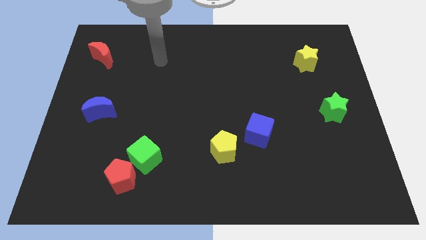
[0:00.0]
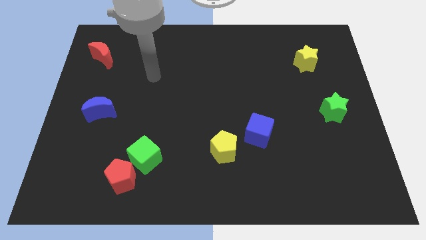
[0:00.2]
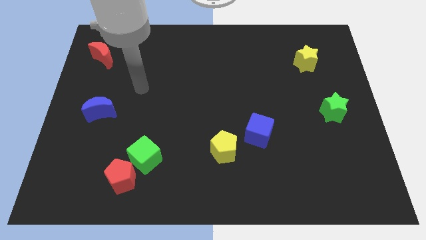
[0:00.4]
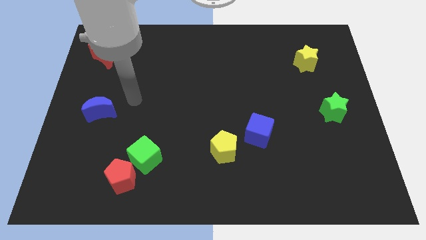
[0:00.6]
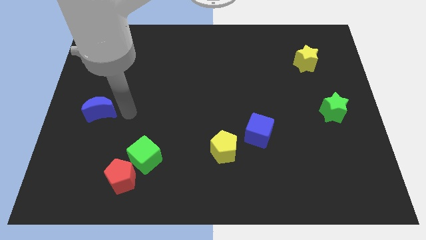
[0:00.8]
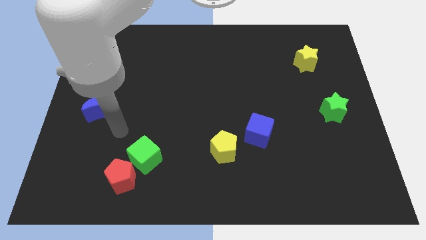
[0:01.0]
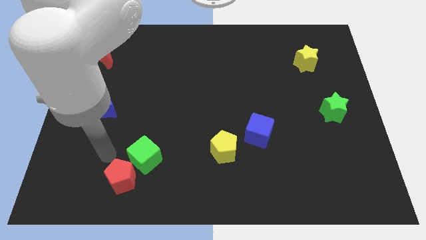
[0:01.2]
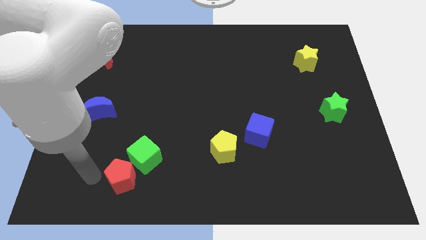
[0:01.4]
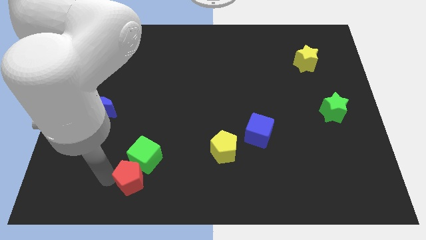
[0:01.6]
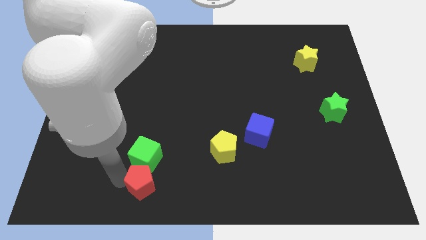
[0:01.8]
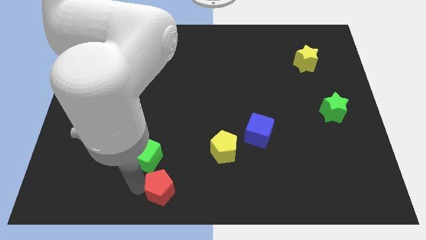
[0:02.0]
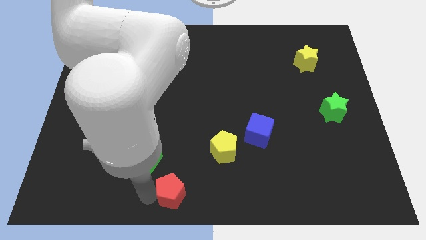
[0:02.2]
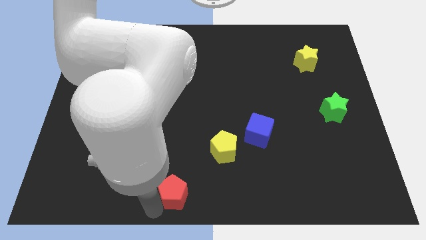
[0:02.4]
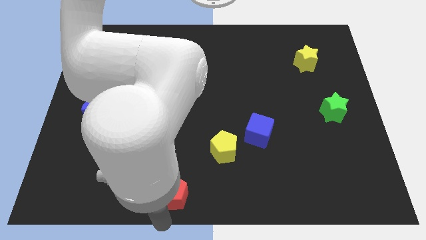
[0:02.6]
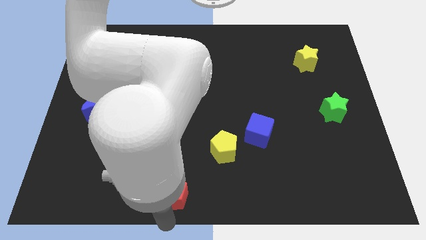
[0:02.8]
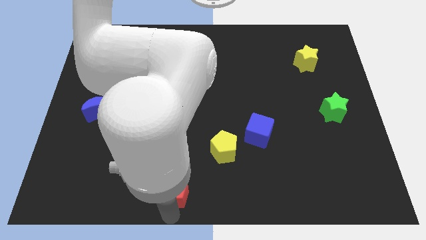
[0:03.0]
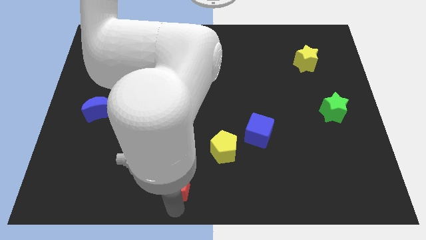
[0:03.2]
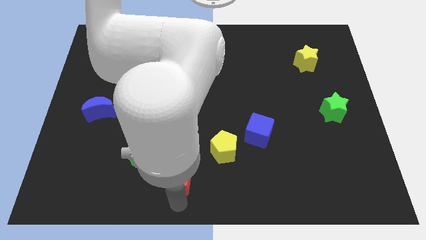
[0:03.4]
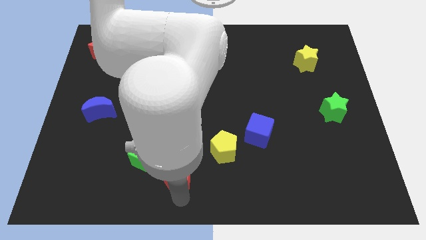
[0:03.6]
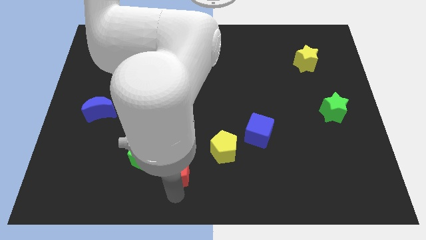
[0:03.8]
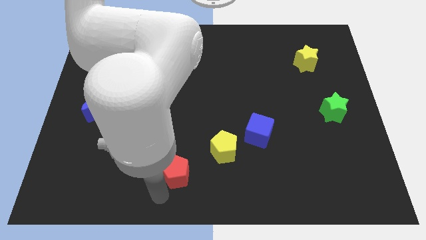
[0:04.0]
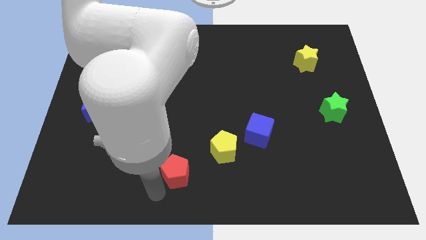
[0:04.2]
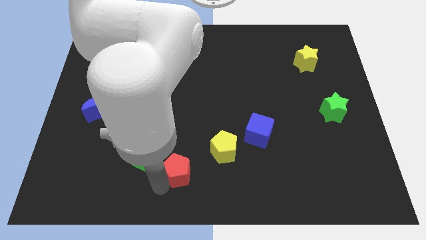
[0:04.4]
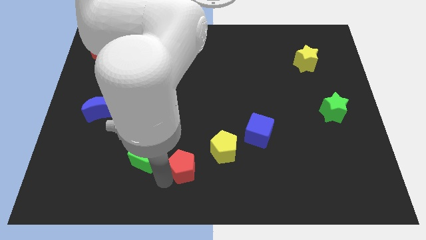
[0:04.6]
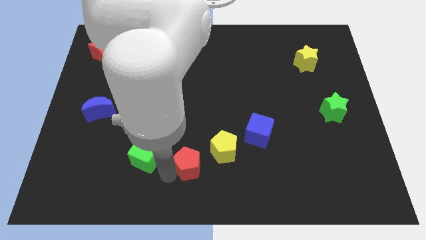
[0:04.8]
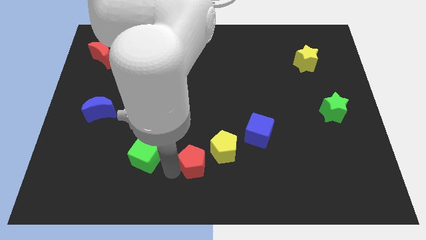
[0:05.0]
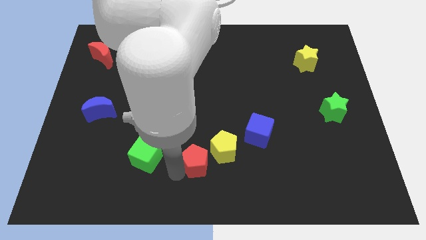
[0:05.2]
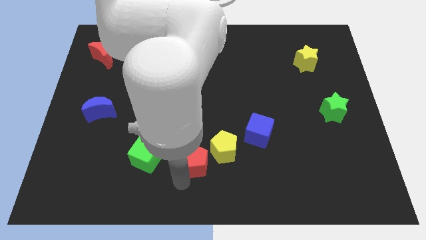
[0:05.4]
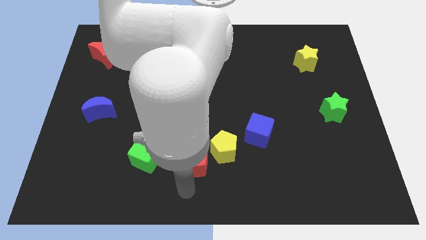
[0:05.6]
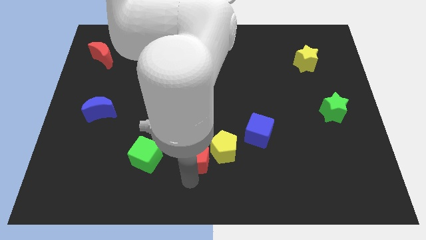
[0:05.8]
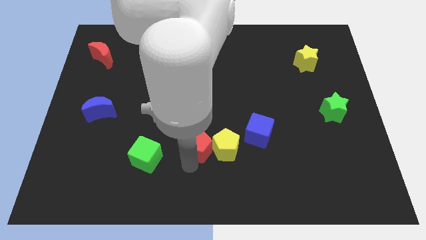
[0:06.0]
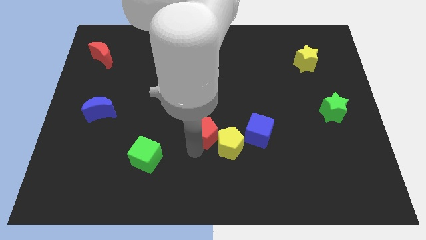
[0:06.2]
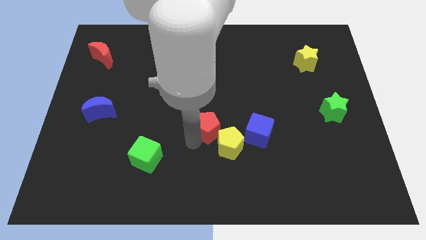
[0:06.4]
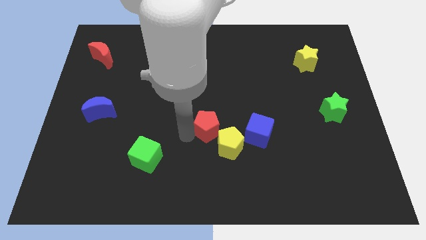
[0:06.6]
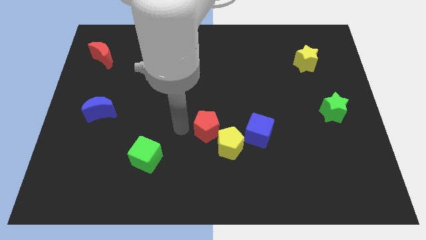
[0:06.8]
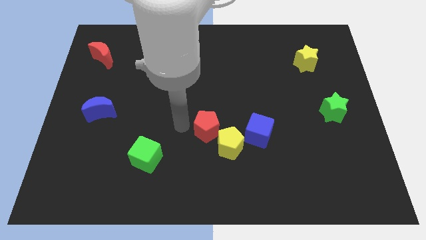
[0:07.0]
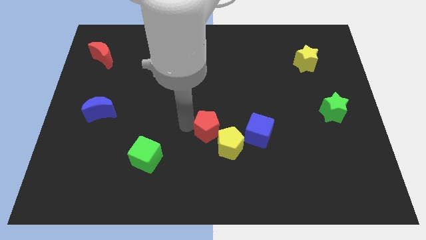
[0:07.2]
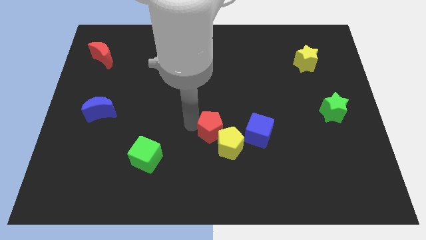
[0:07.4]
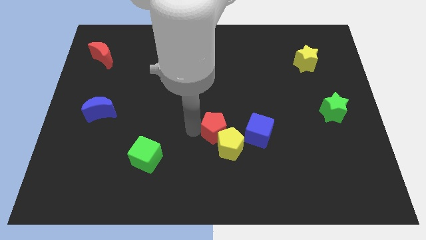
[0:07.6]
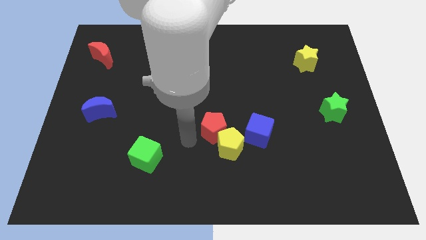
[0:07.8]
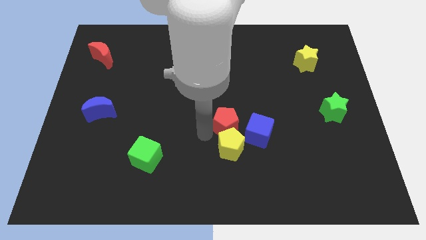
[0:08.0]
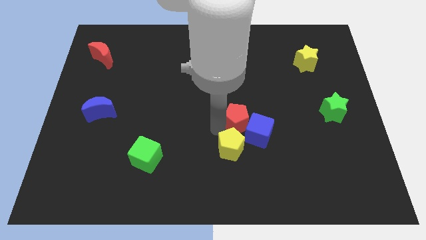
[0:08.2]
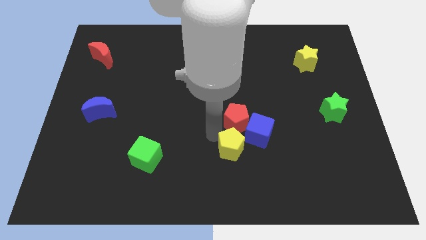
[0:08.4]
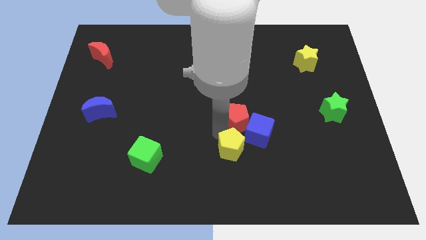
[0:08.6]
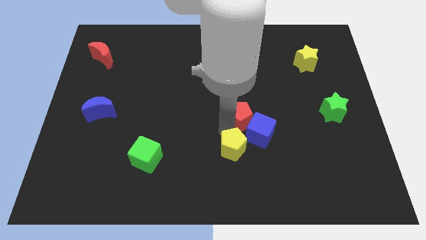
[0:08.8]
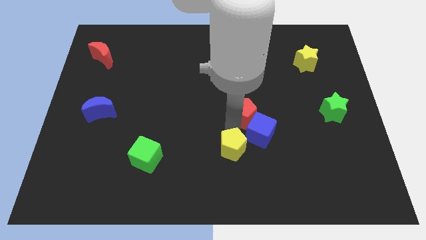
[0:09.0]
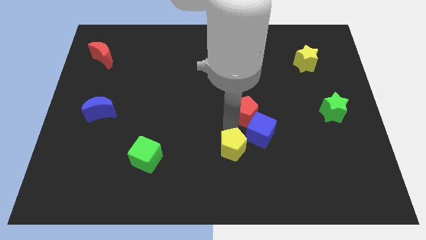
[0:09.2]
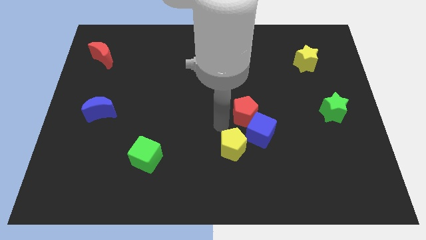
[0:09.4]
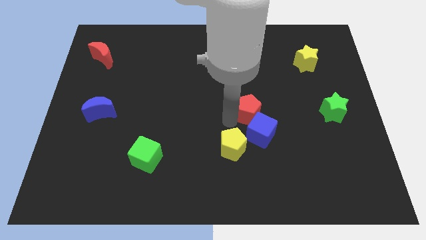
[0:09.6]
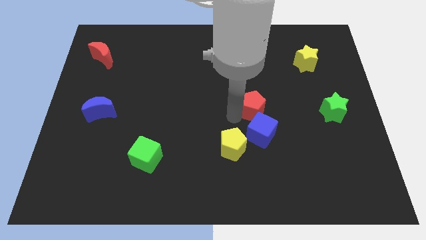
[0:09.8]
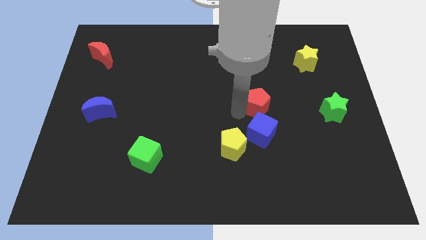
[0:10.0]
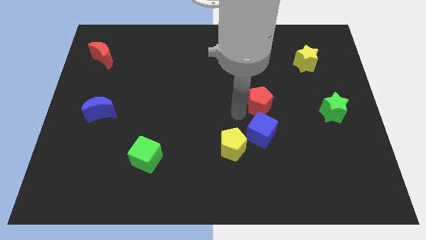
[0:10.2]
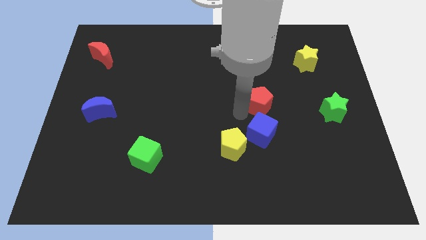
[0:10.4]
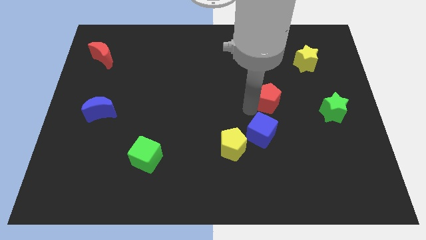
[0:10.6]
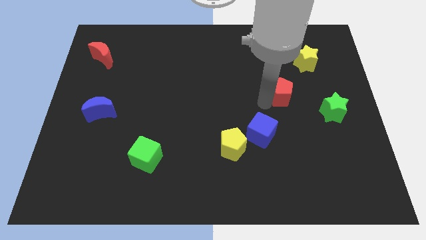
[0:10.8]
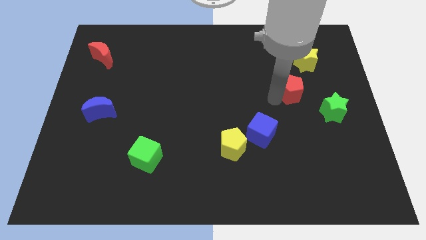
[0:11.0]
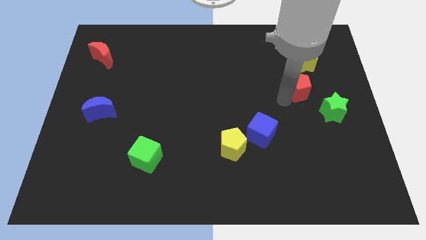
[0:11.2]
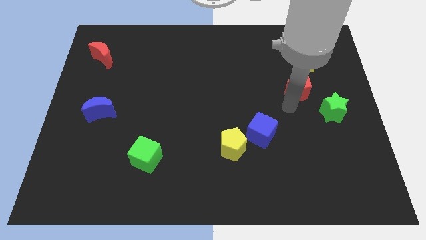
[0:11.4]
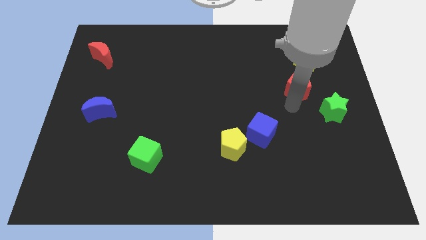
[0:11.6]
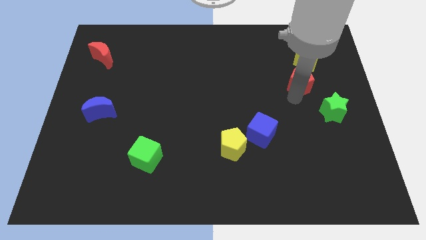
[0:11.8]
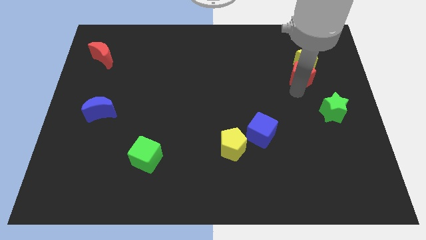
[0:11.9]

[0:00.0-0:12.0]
push the red pentagon towards the yellow star

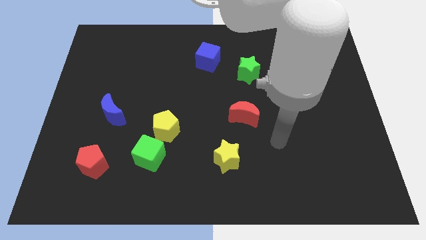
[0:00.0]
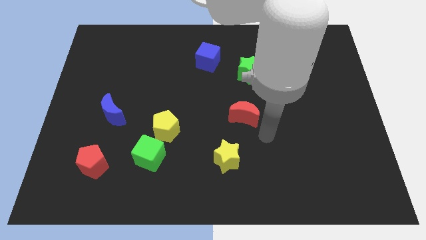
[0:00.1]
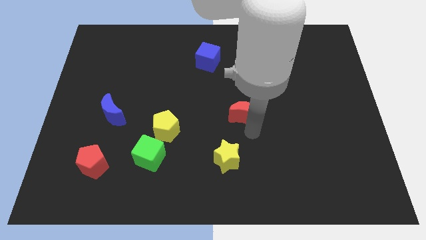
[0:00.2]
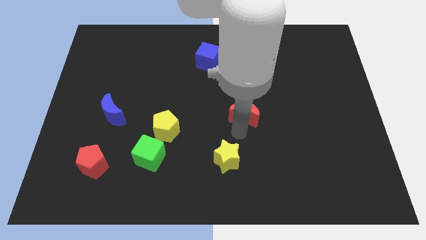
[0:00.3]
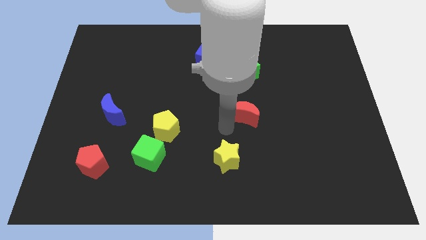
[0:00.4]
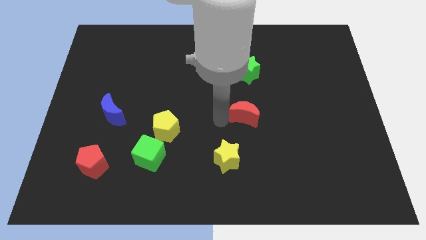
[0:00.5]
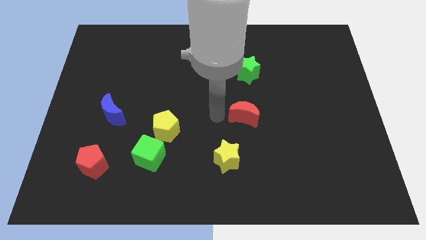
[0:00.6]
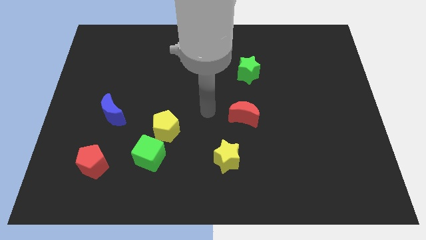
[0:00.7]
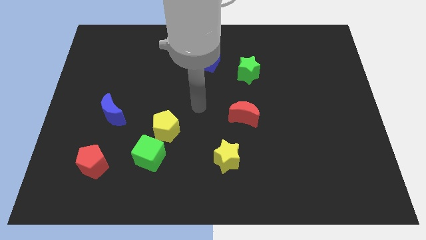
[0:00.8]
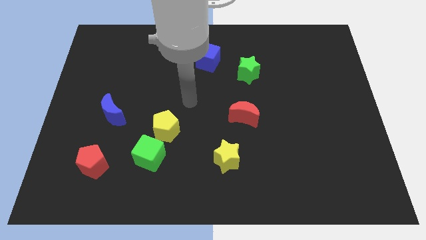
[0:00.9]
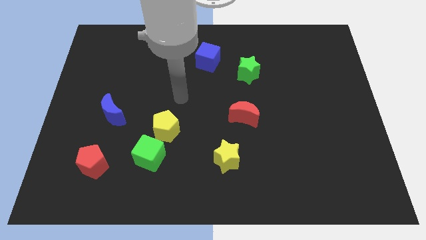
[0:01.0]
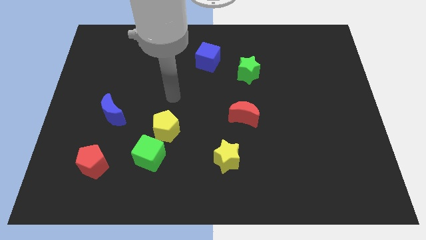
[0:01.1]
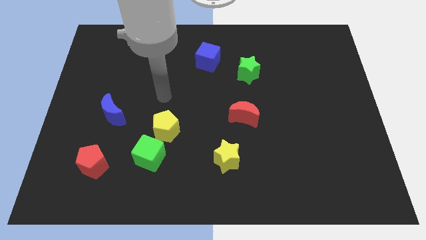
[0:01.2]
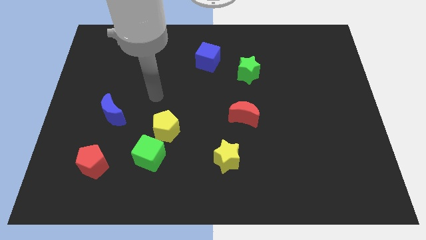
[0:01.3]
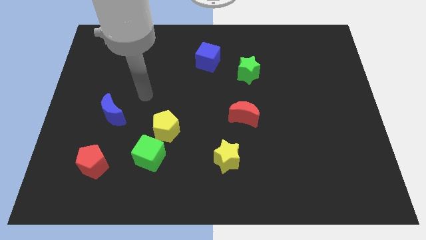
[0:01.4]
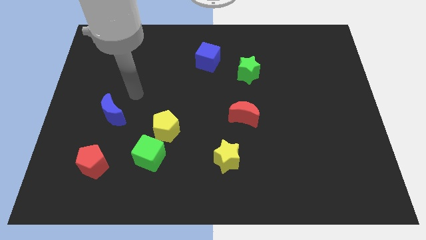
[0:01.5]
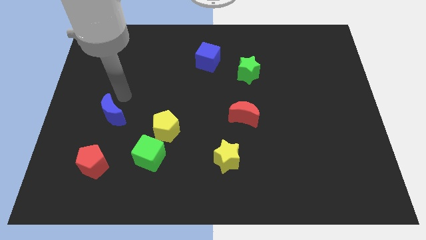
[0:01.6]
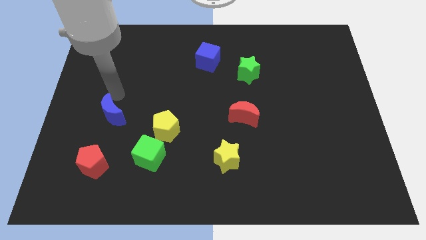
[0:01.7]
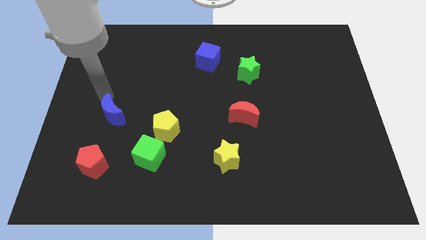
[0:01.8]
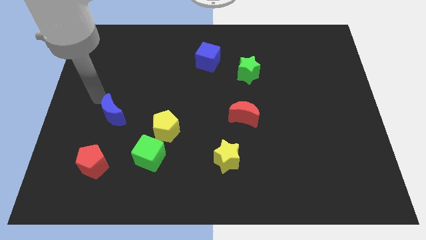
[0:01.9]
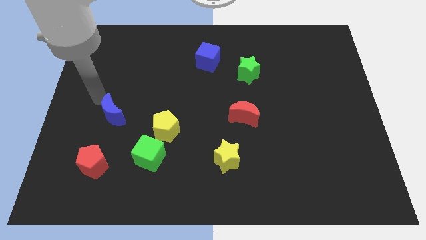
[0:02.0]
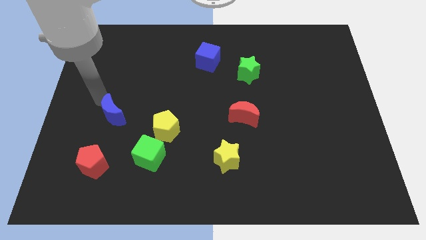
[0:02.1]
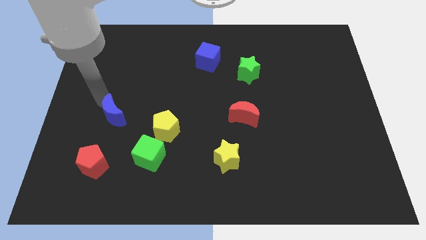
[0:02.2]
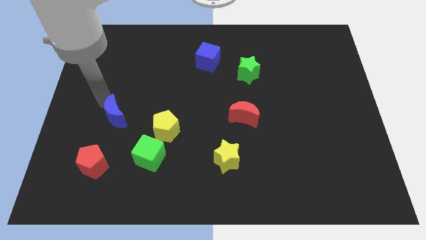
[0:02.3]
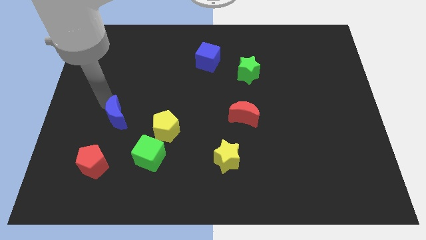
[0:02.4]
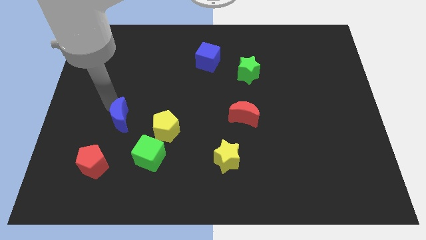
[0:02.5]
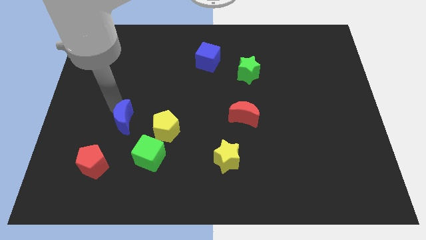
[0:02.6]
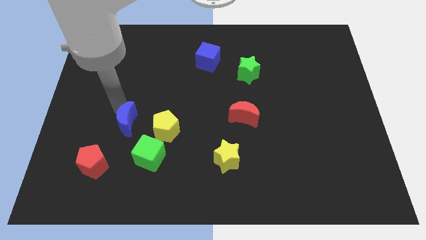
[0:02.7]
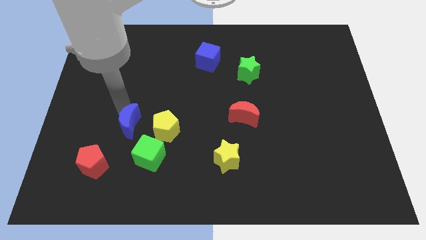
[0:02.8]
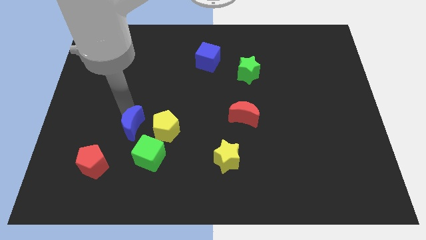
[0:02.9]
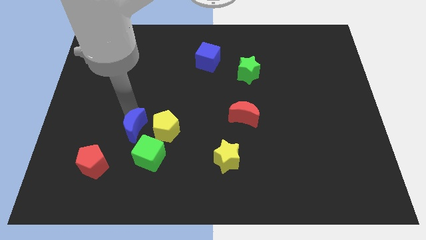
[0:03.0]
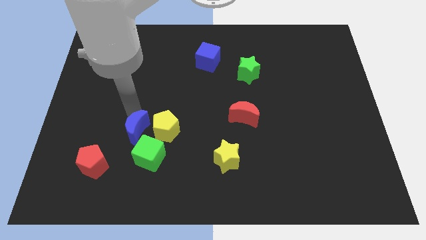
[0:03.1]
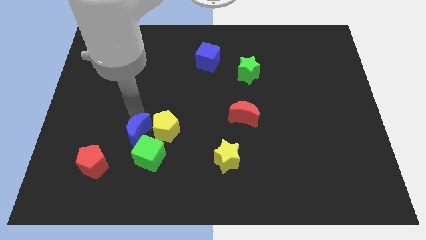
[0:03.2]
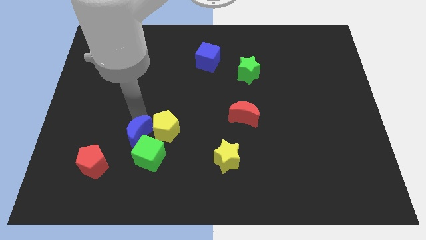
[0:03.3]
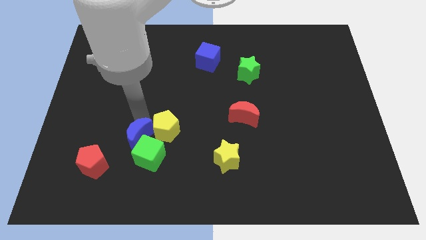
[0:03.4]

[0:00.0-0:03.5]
move the blue moon towards the green cube
